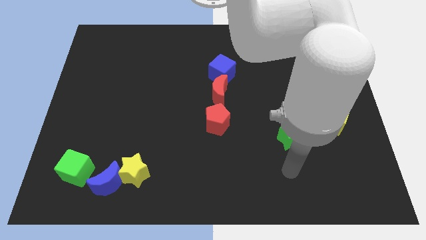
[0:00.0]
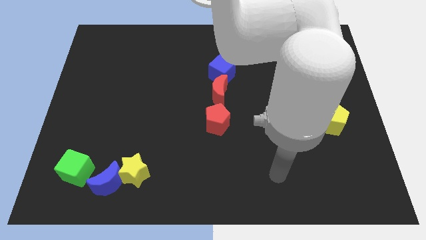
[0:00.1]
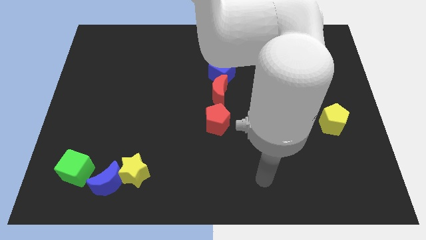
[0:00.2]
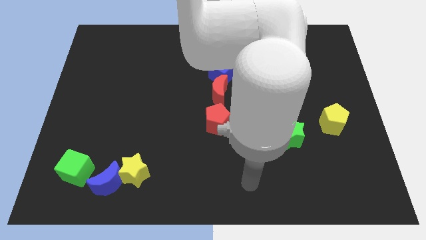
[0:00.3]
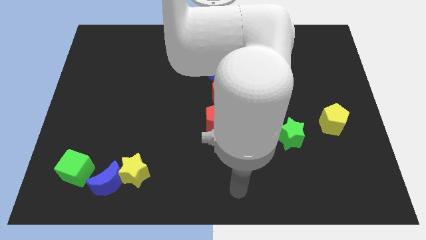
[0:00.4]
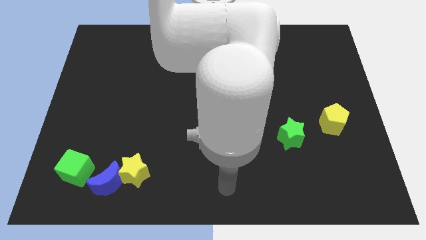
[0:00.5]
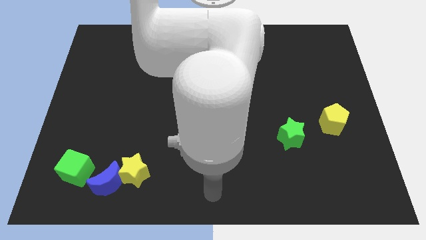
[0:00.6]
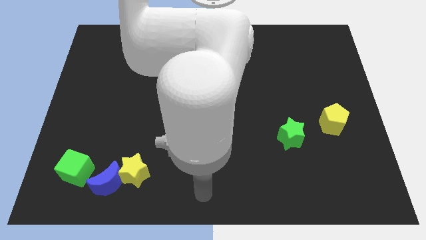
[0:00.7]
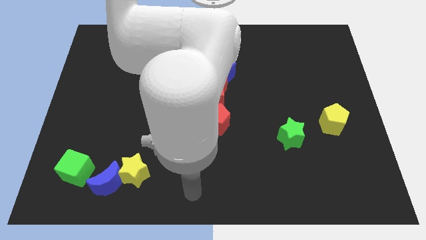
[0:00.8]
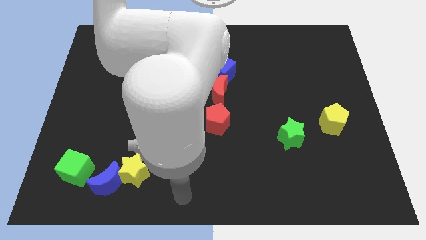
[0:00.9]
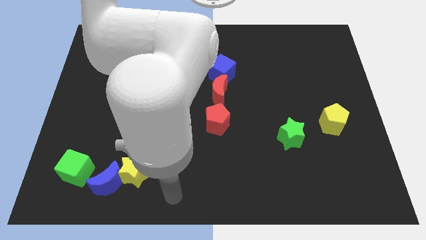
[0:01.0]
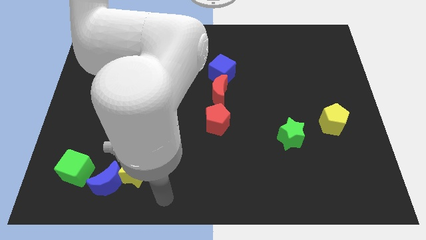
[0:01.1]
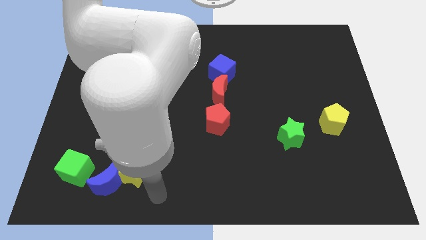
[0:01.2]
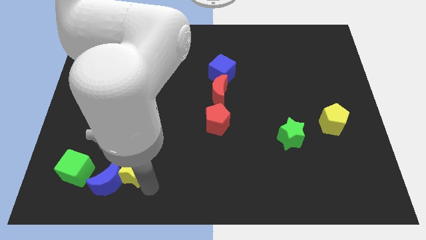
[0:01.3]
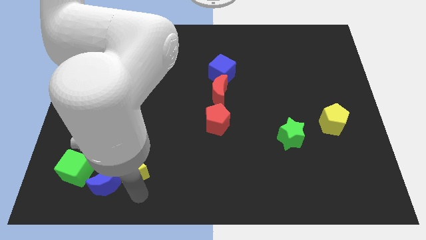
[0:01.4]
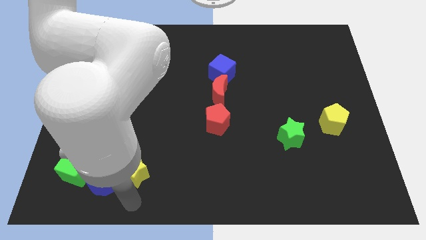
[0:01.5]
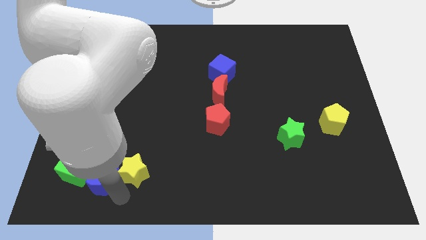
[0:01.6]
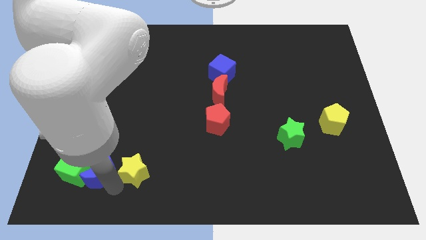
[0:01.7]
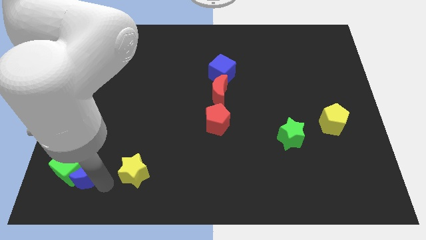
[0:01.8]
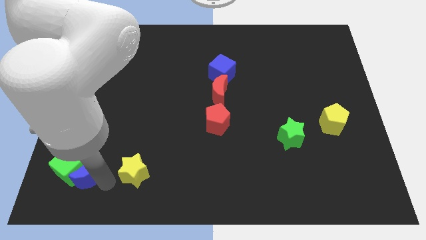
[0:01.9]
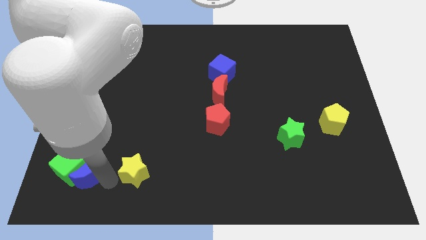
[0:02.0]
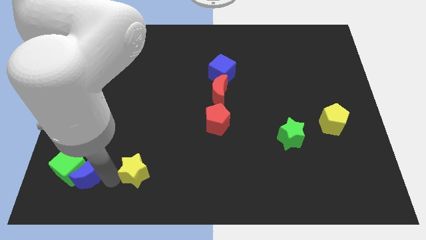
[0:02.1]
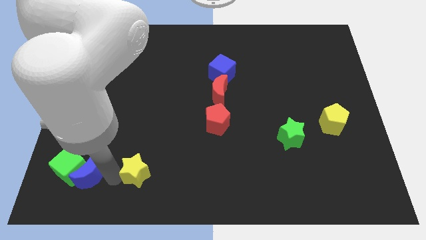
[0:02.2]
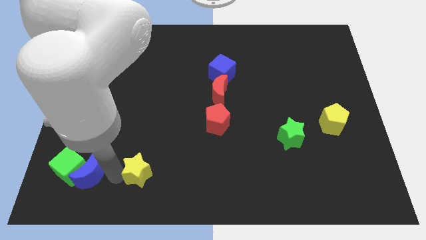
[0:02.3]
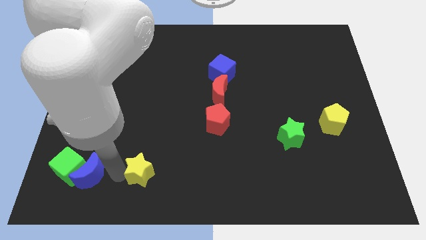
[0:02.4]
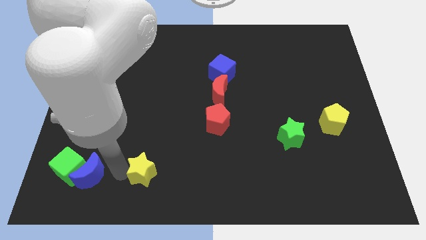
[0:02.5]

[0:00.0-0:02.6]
separate the yellow star from the blue moon

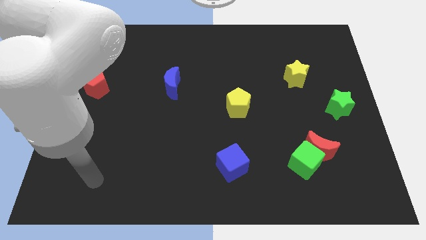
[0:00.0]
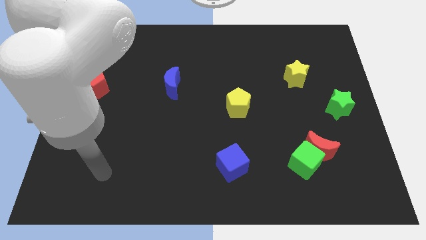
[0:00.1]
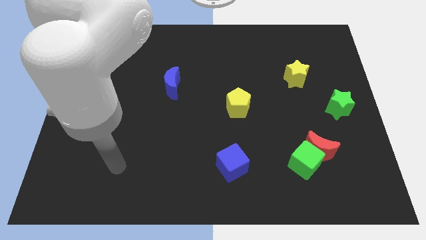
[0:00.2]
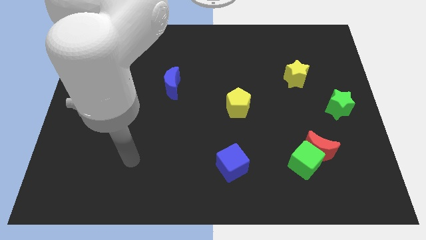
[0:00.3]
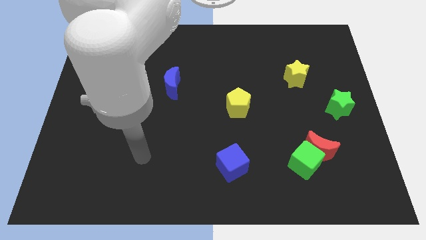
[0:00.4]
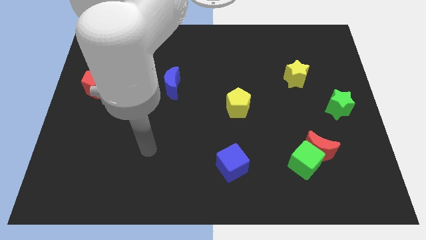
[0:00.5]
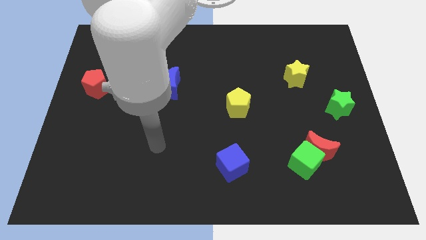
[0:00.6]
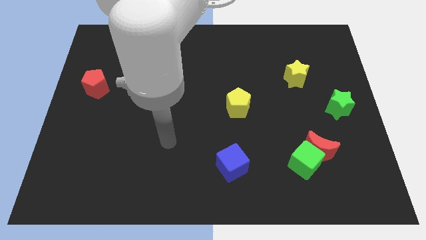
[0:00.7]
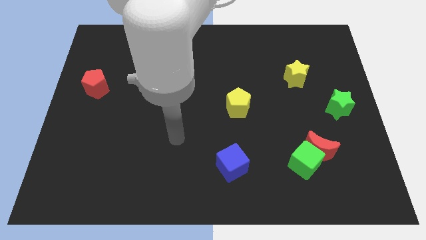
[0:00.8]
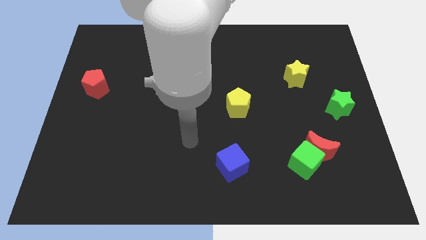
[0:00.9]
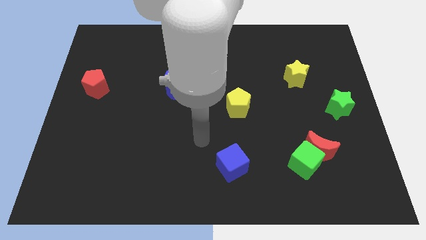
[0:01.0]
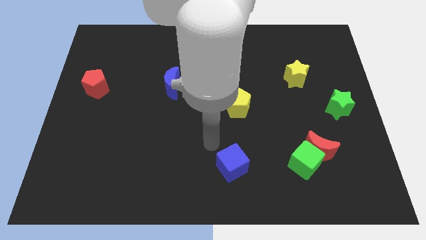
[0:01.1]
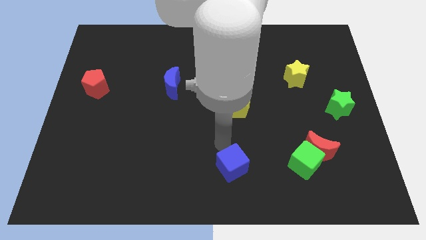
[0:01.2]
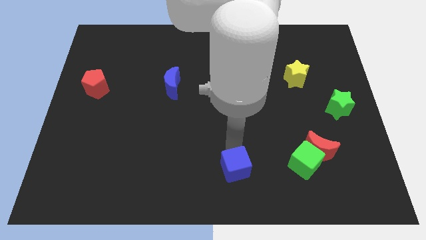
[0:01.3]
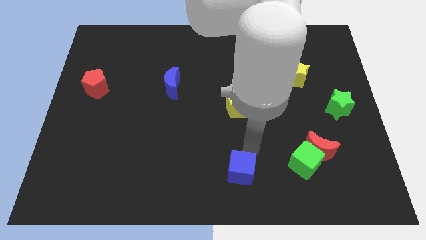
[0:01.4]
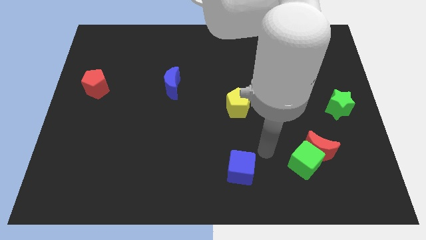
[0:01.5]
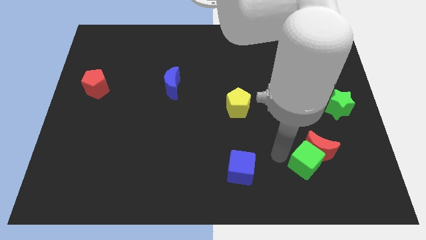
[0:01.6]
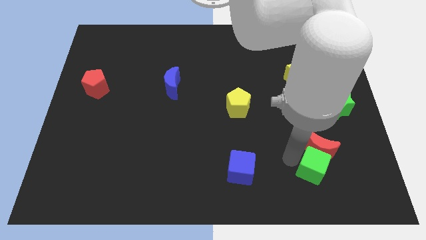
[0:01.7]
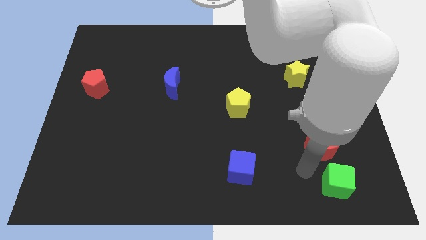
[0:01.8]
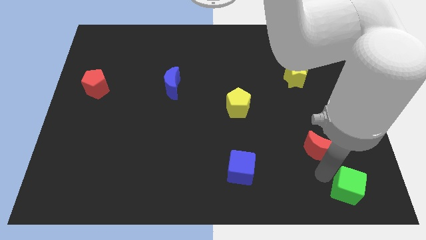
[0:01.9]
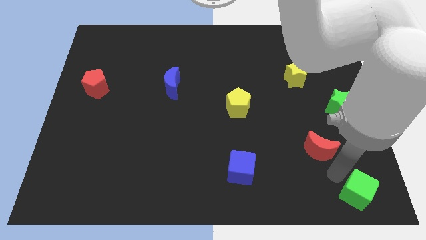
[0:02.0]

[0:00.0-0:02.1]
pull the red moon apart from the green cube

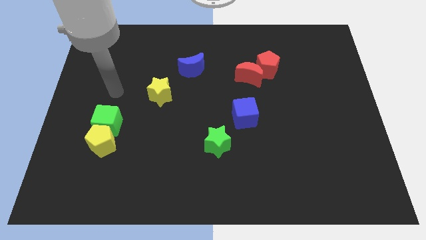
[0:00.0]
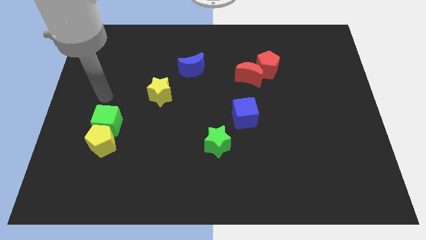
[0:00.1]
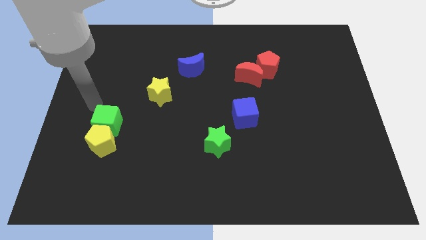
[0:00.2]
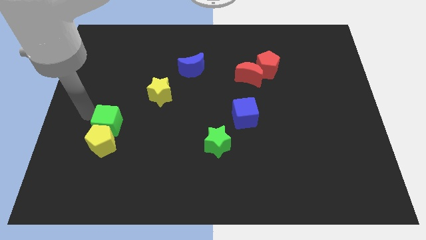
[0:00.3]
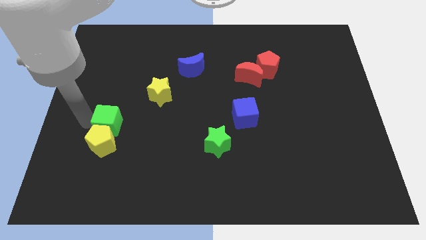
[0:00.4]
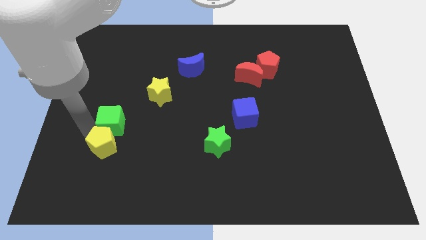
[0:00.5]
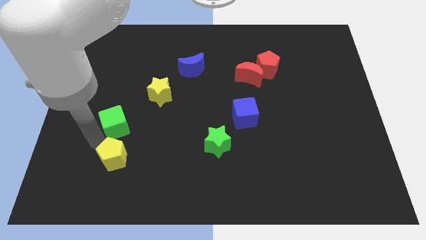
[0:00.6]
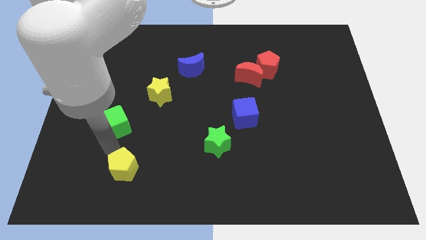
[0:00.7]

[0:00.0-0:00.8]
move the green cube away from the yellow pentagon

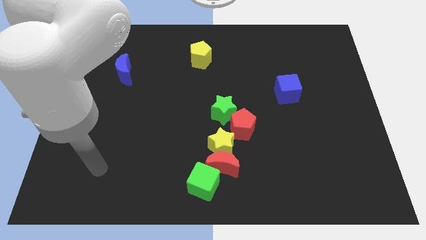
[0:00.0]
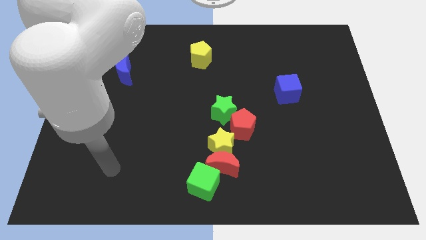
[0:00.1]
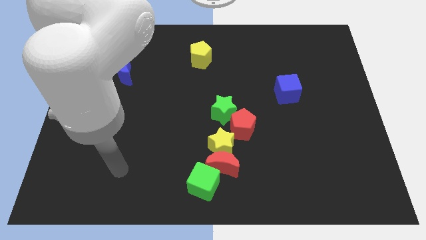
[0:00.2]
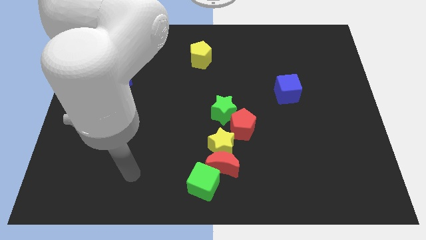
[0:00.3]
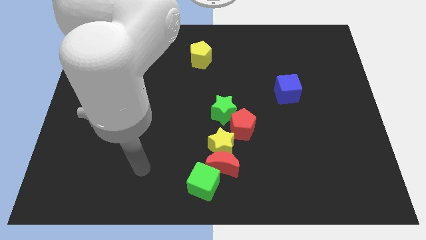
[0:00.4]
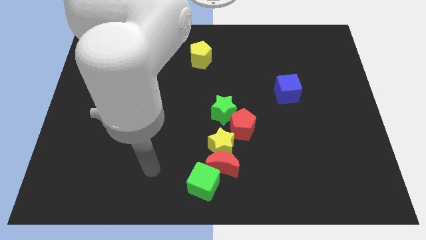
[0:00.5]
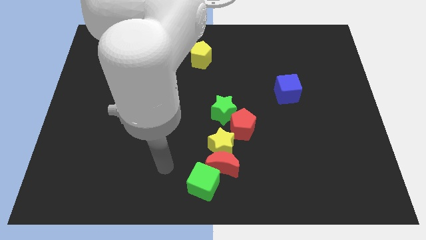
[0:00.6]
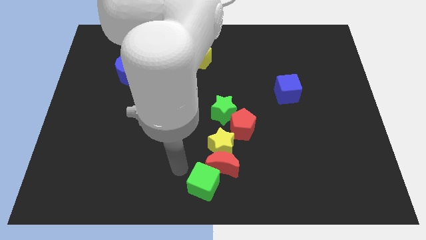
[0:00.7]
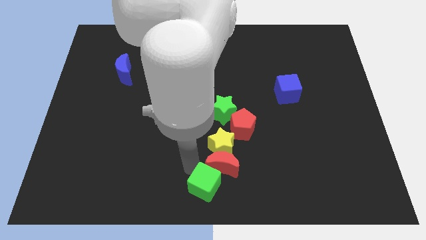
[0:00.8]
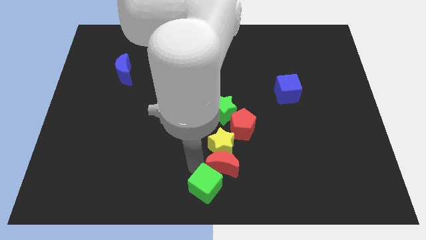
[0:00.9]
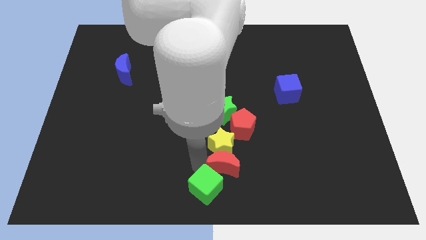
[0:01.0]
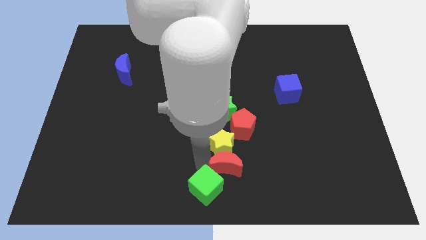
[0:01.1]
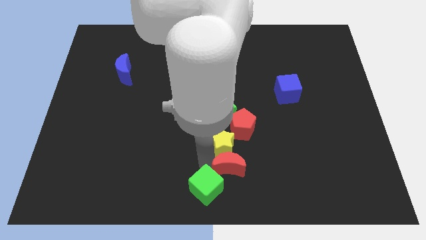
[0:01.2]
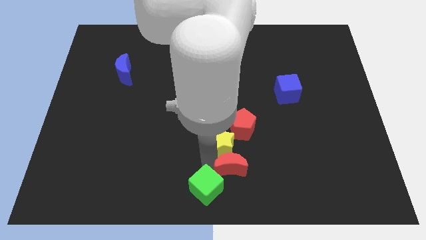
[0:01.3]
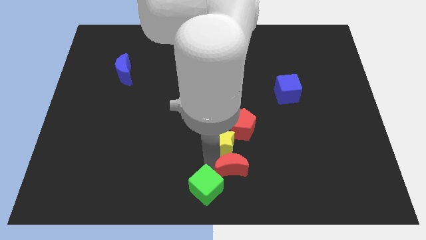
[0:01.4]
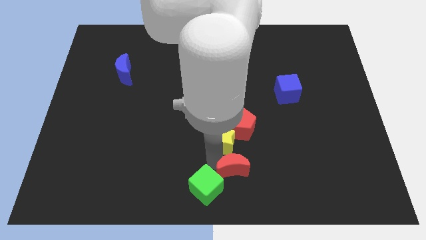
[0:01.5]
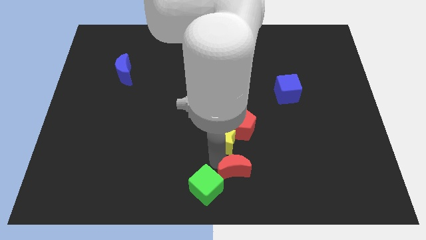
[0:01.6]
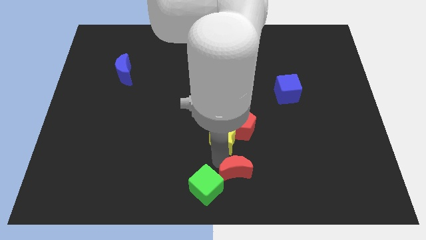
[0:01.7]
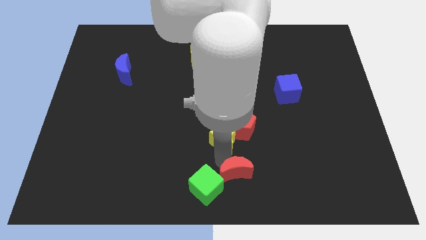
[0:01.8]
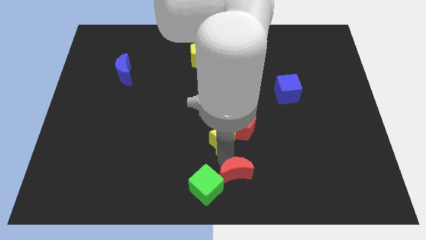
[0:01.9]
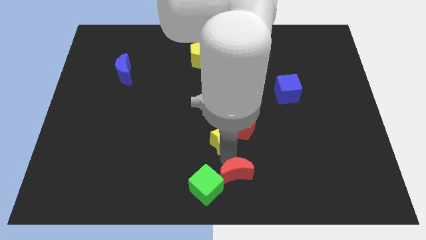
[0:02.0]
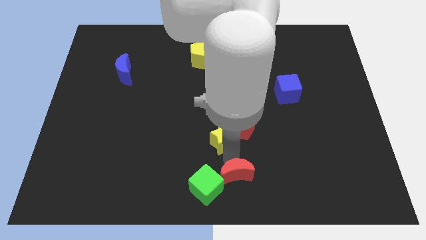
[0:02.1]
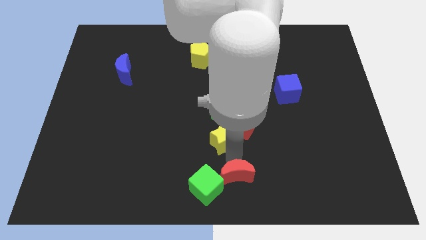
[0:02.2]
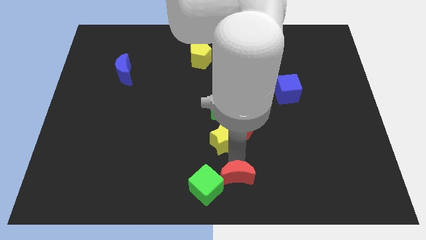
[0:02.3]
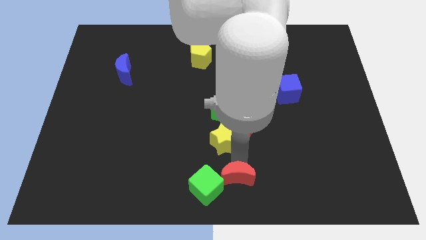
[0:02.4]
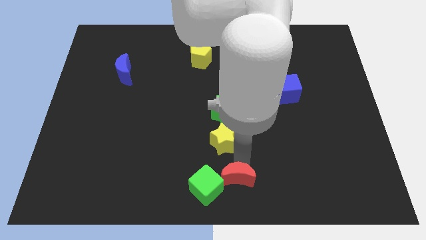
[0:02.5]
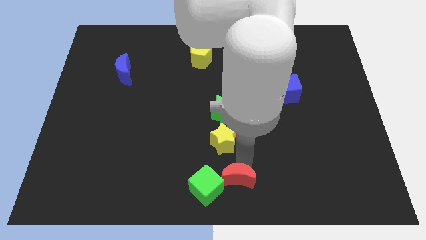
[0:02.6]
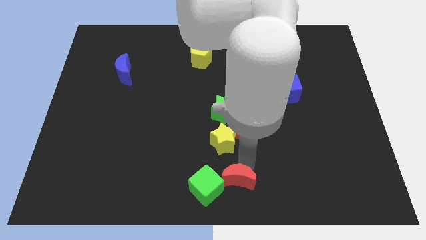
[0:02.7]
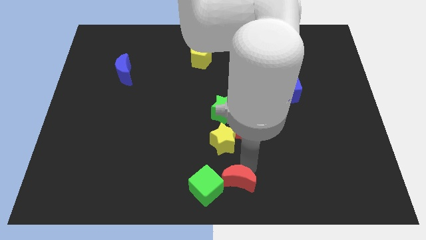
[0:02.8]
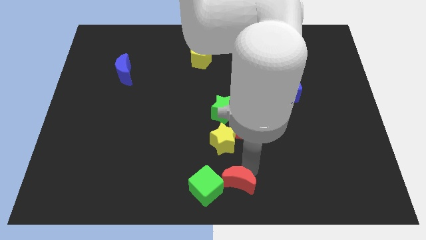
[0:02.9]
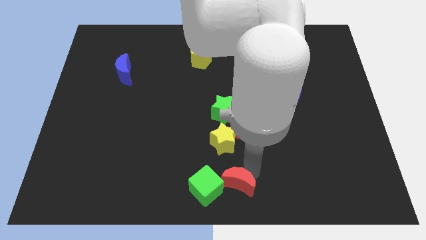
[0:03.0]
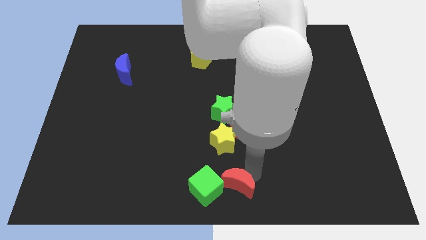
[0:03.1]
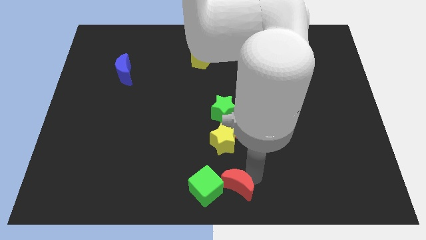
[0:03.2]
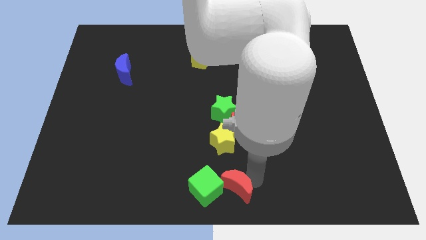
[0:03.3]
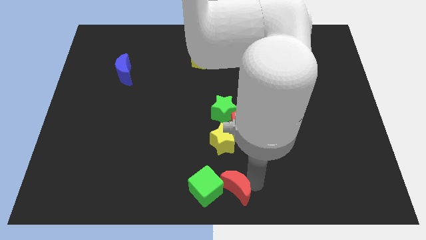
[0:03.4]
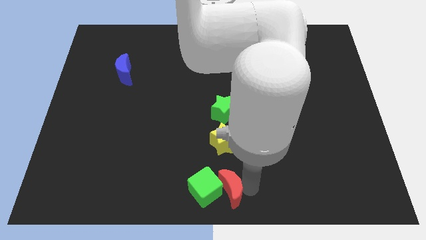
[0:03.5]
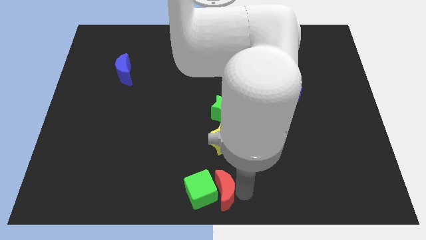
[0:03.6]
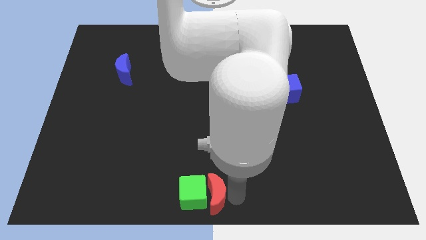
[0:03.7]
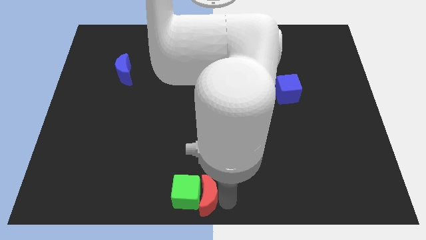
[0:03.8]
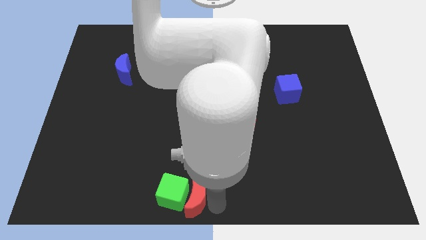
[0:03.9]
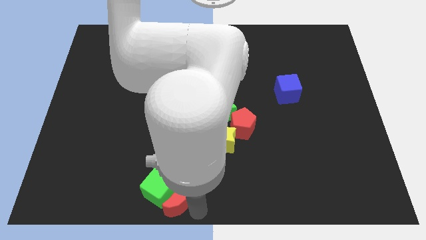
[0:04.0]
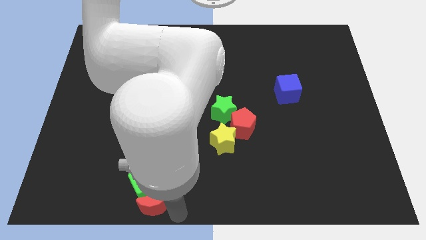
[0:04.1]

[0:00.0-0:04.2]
pull the red moon apart from the yellow star and green cube
